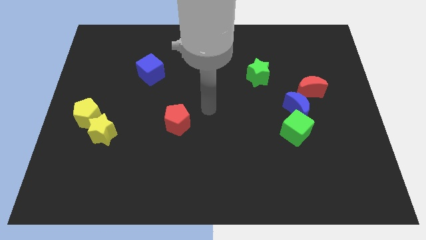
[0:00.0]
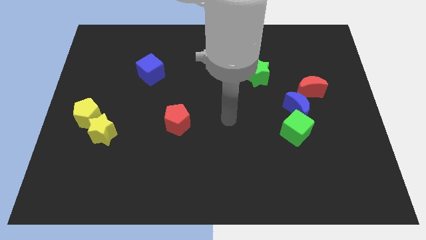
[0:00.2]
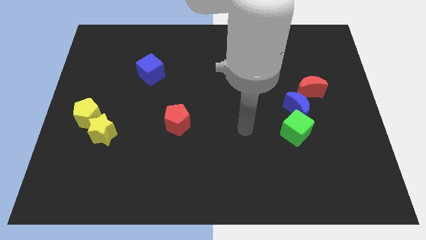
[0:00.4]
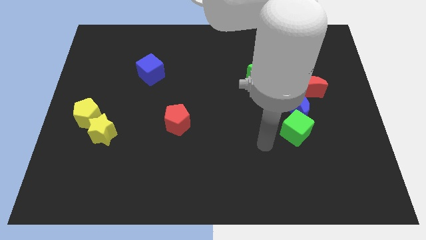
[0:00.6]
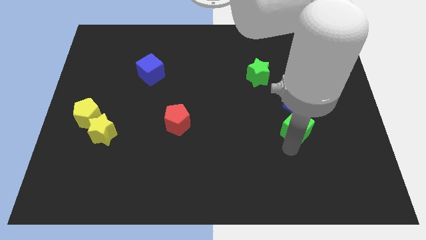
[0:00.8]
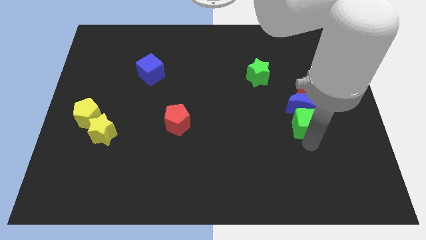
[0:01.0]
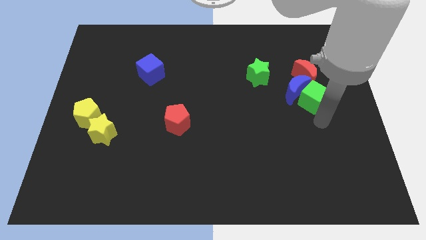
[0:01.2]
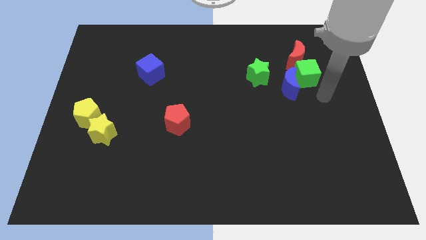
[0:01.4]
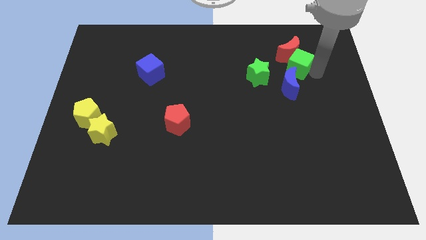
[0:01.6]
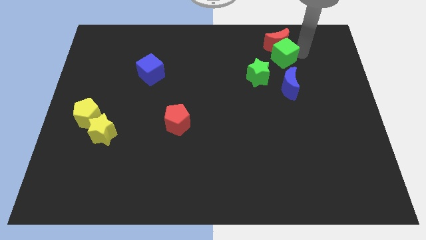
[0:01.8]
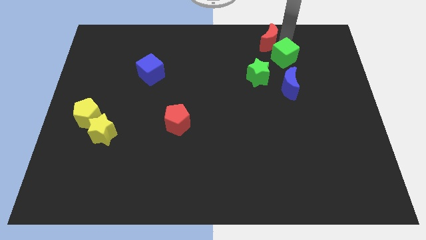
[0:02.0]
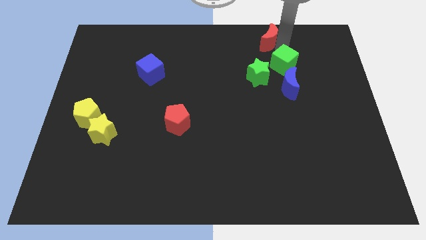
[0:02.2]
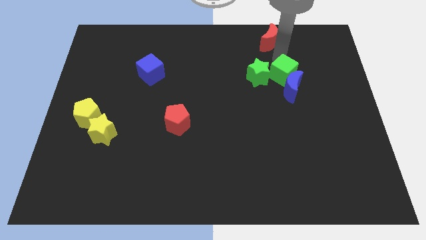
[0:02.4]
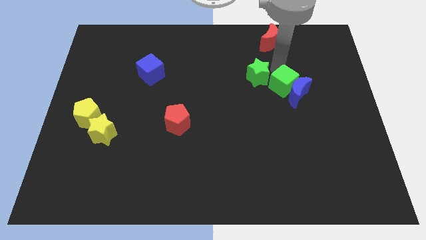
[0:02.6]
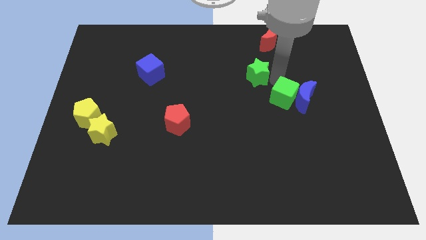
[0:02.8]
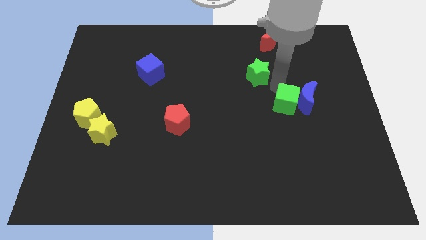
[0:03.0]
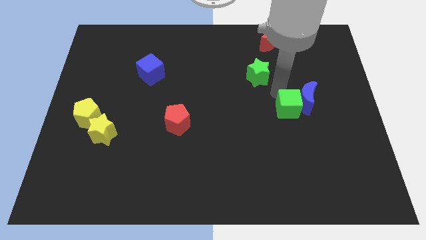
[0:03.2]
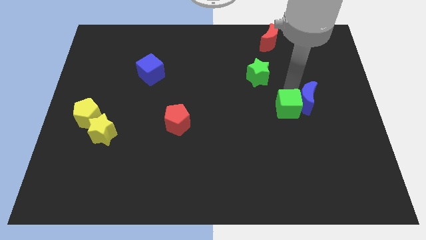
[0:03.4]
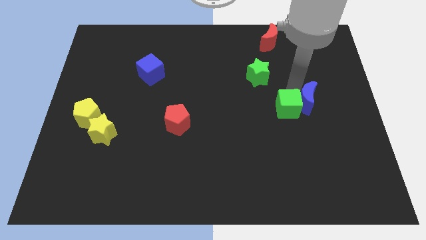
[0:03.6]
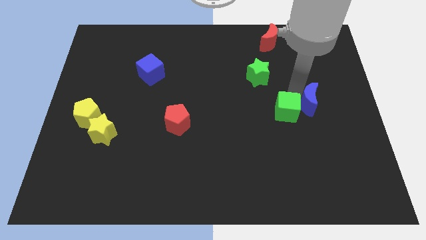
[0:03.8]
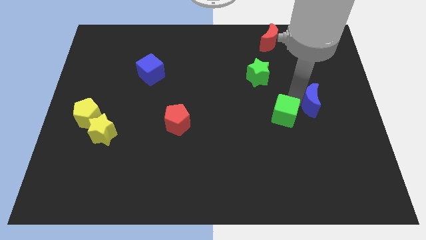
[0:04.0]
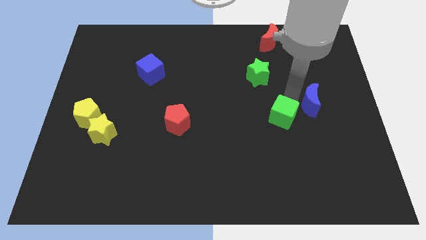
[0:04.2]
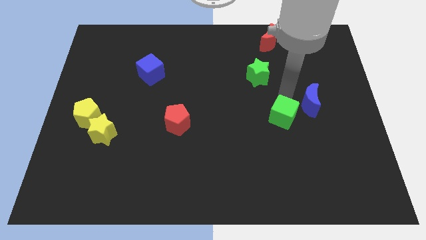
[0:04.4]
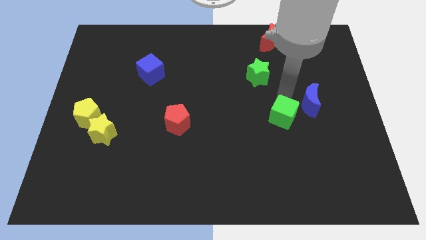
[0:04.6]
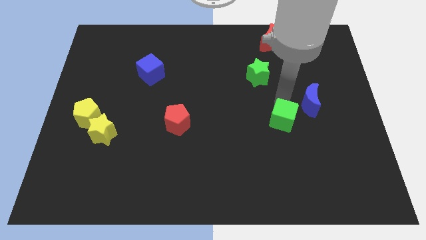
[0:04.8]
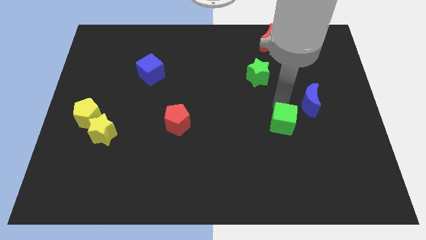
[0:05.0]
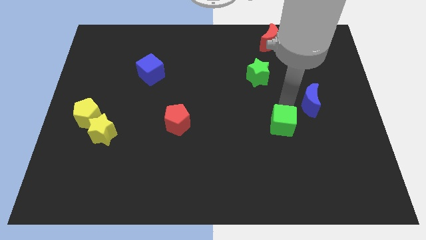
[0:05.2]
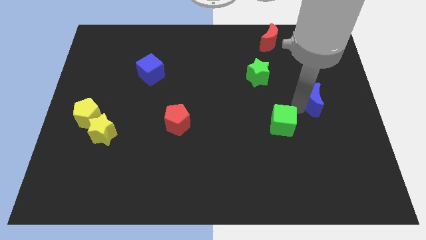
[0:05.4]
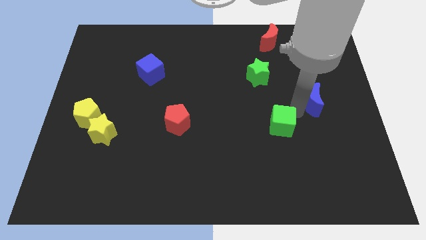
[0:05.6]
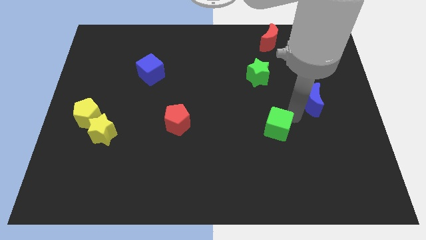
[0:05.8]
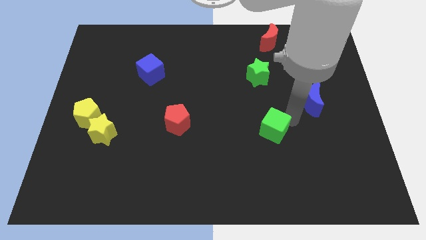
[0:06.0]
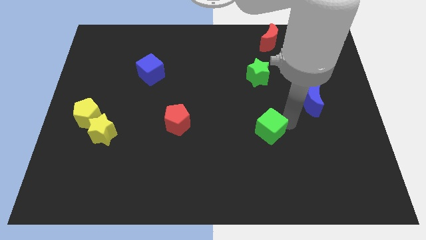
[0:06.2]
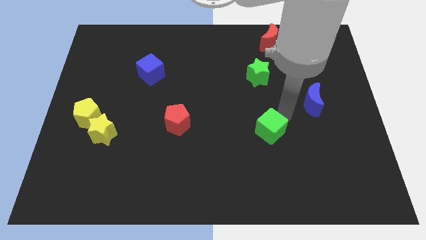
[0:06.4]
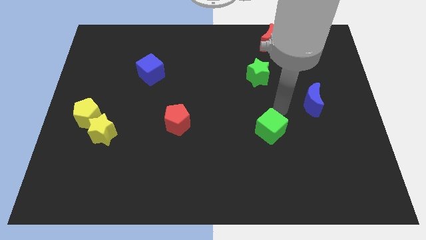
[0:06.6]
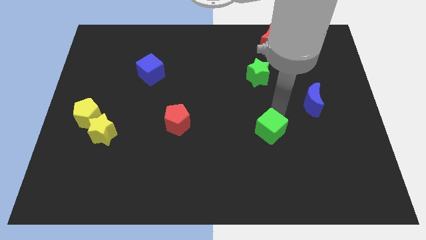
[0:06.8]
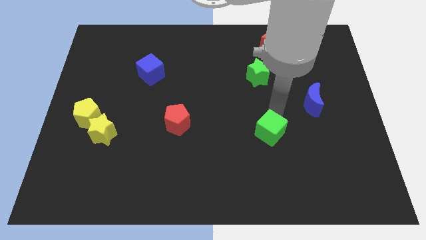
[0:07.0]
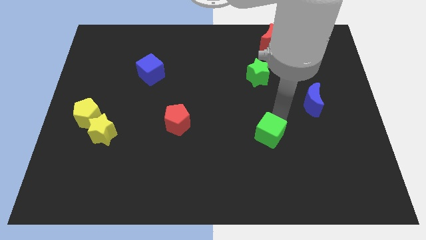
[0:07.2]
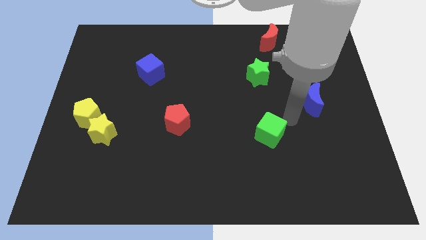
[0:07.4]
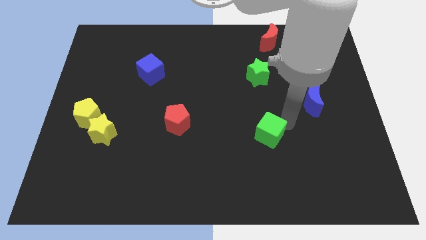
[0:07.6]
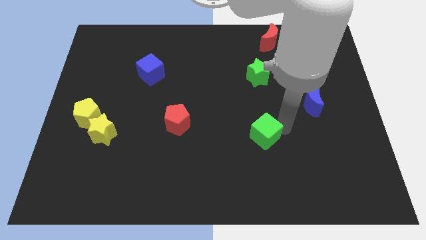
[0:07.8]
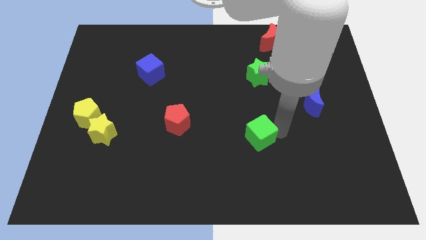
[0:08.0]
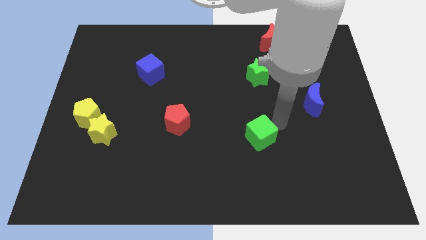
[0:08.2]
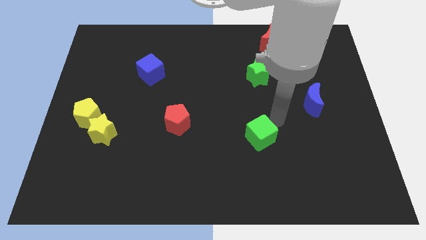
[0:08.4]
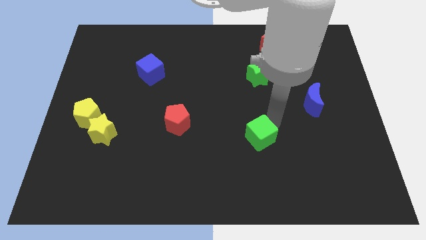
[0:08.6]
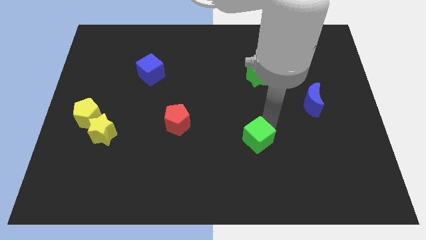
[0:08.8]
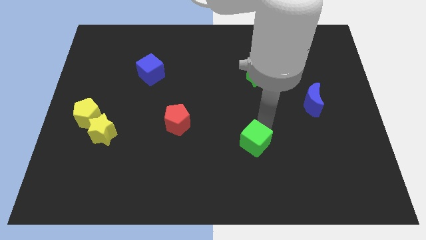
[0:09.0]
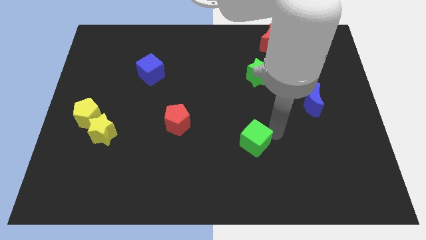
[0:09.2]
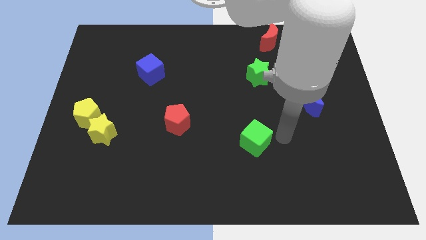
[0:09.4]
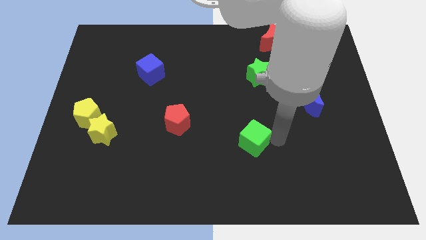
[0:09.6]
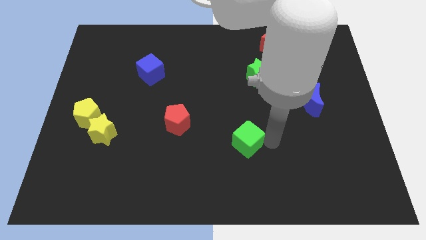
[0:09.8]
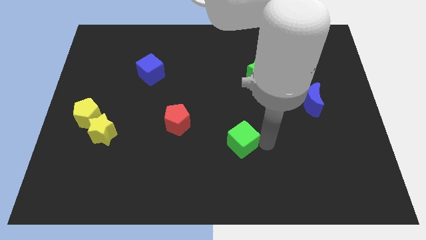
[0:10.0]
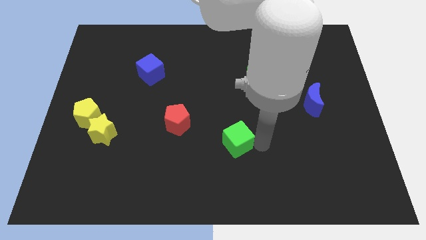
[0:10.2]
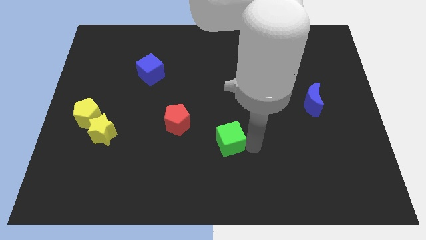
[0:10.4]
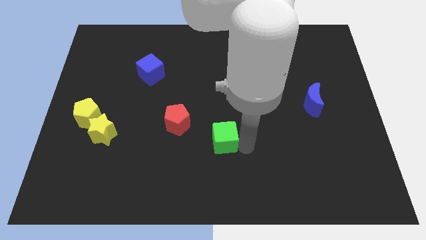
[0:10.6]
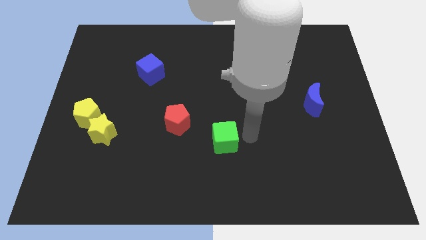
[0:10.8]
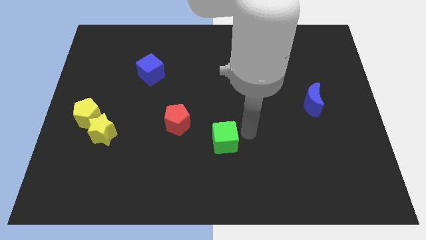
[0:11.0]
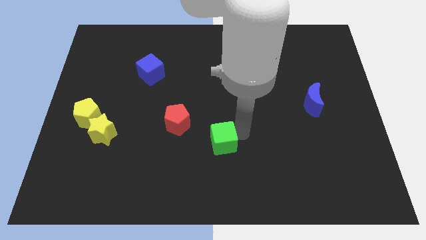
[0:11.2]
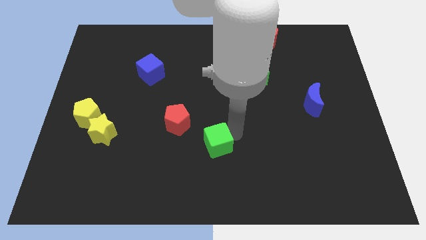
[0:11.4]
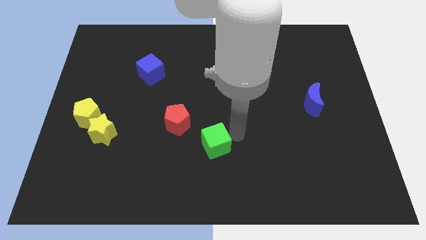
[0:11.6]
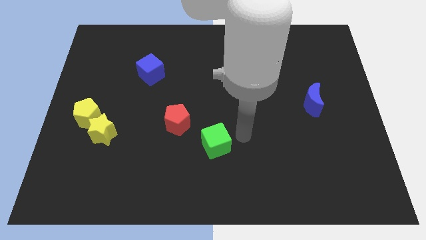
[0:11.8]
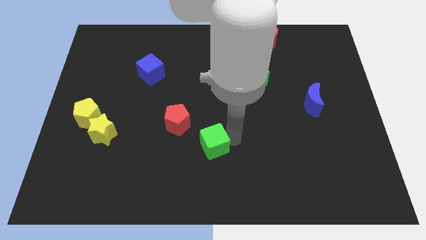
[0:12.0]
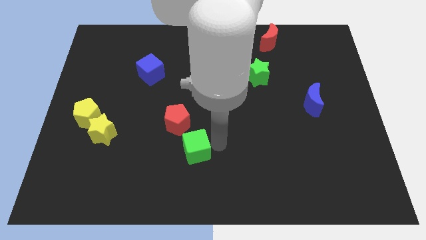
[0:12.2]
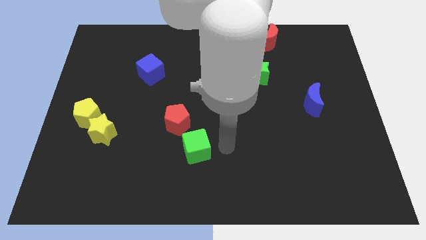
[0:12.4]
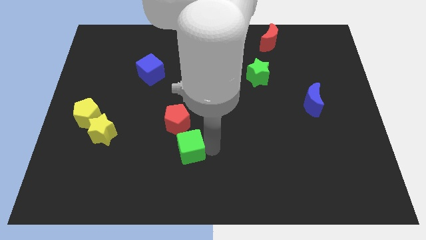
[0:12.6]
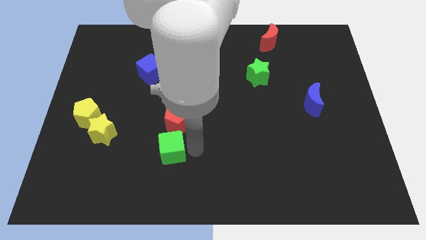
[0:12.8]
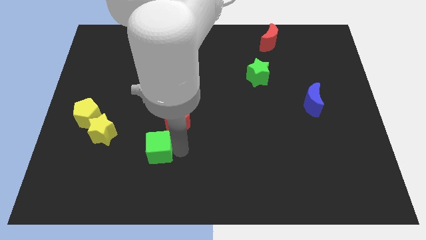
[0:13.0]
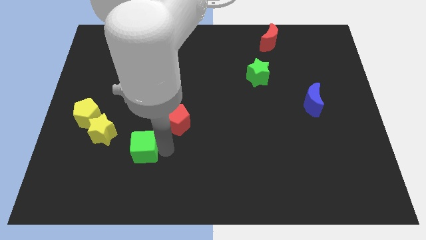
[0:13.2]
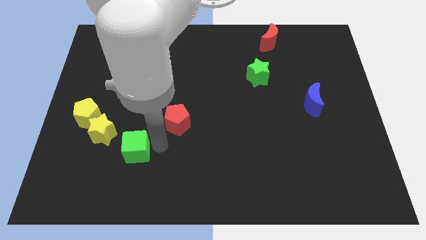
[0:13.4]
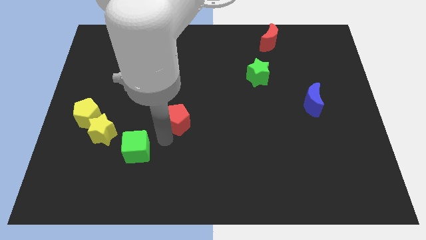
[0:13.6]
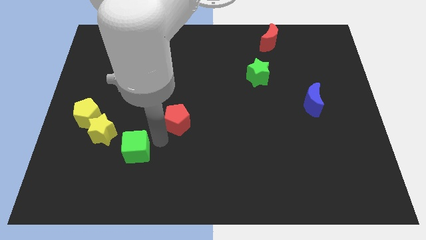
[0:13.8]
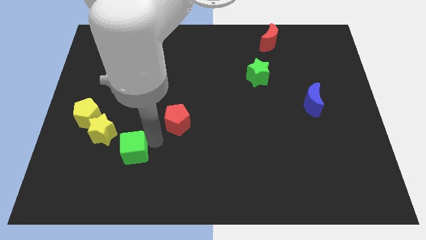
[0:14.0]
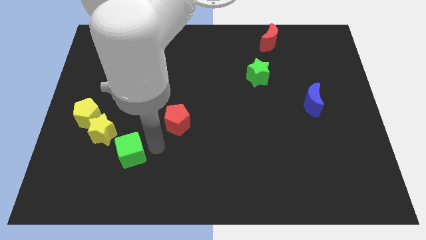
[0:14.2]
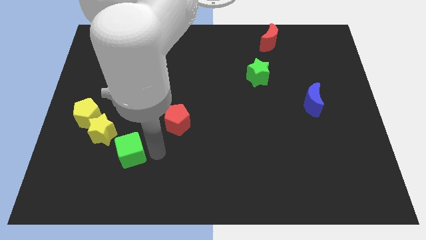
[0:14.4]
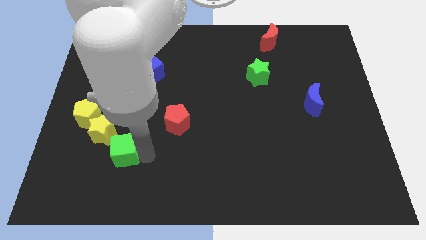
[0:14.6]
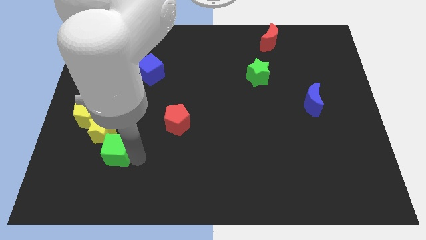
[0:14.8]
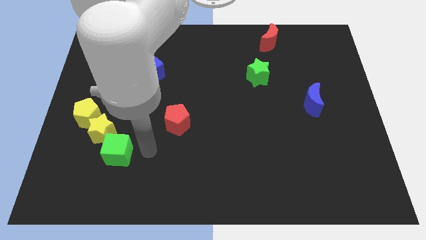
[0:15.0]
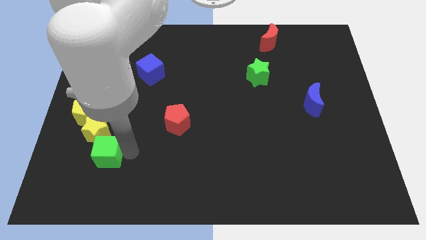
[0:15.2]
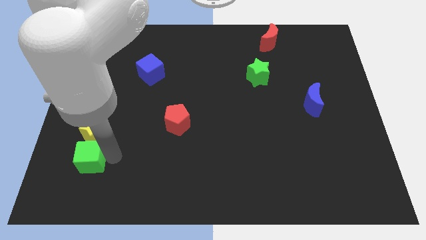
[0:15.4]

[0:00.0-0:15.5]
move the green cube to the bottom of the yellow pentagon
